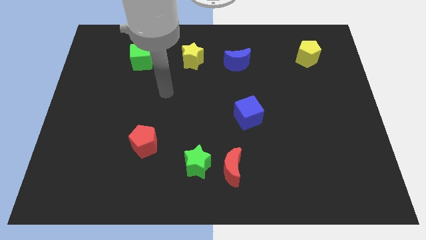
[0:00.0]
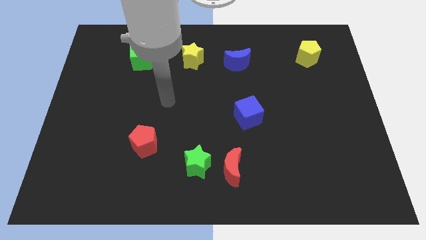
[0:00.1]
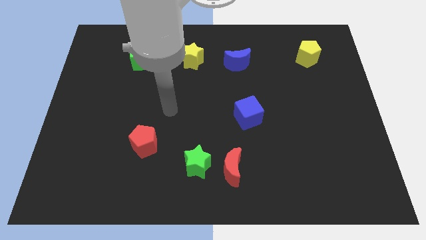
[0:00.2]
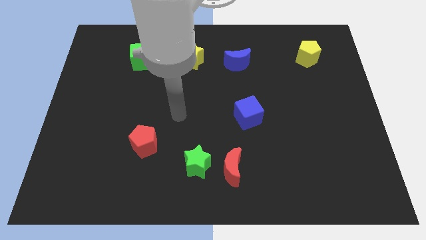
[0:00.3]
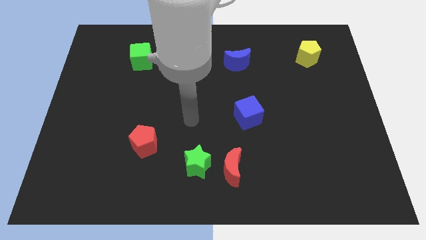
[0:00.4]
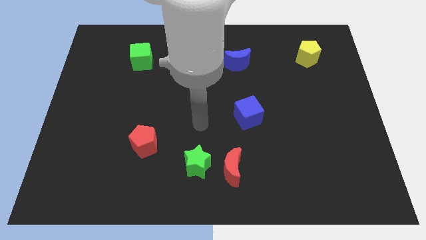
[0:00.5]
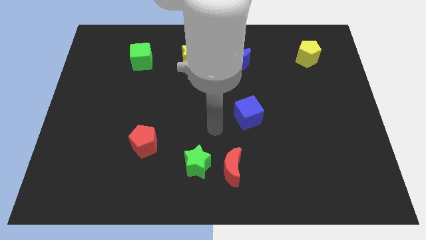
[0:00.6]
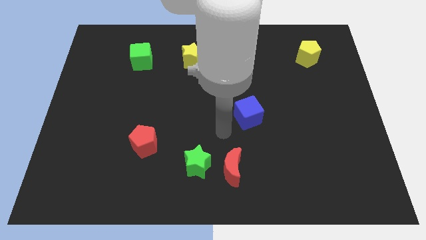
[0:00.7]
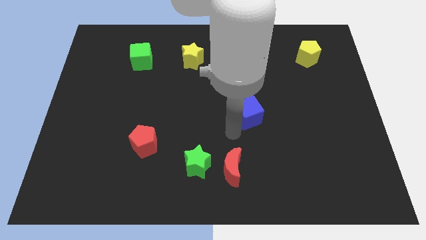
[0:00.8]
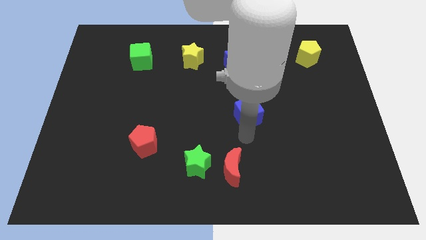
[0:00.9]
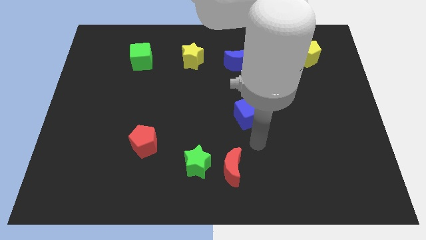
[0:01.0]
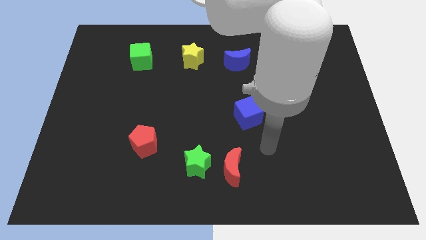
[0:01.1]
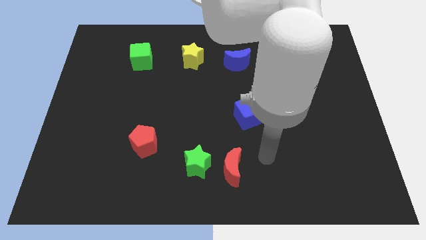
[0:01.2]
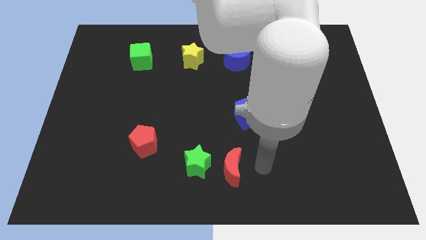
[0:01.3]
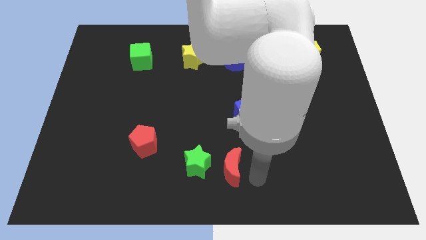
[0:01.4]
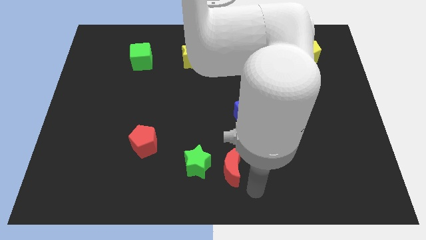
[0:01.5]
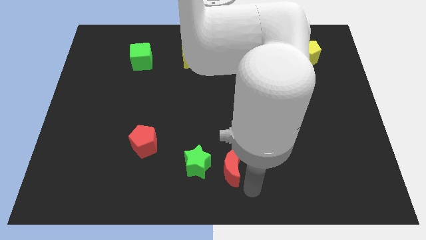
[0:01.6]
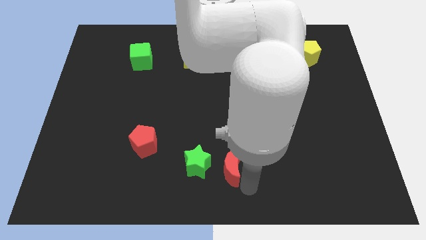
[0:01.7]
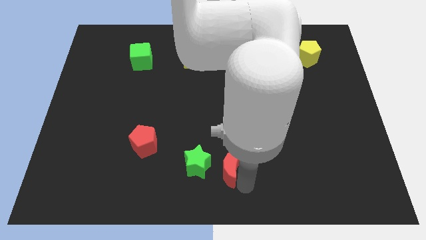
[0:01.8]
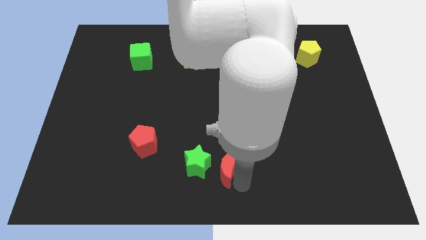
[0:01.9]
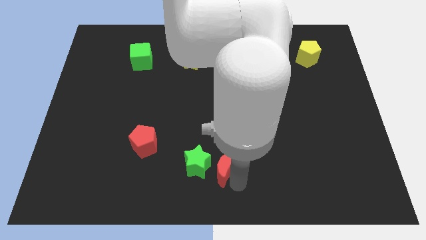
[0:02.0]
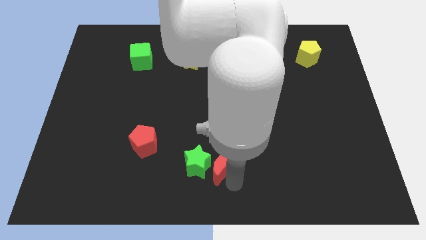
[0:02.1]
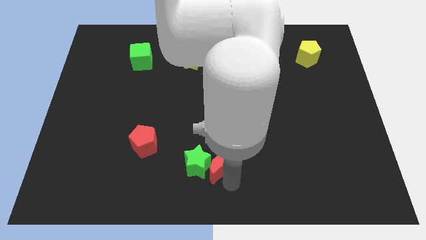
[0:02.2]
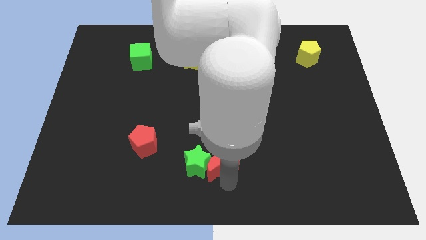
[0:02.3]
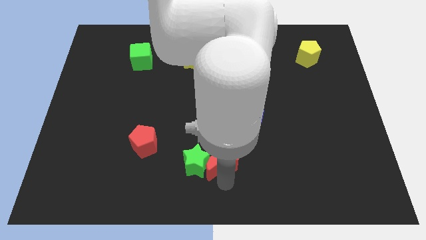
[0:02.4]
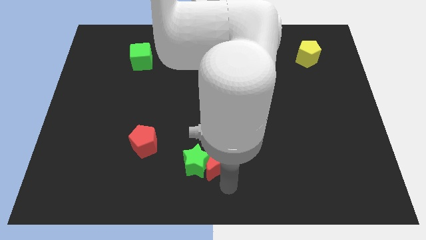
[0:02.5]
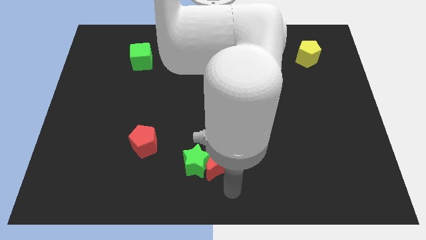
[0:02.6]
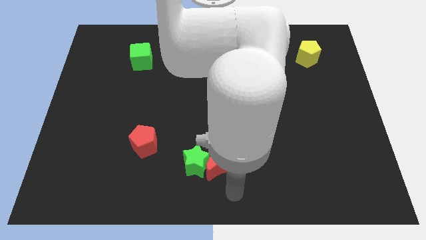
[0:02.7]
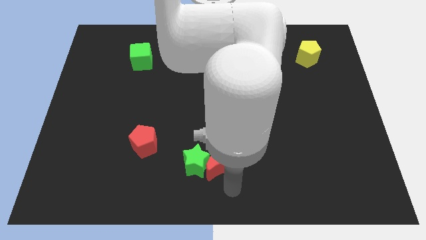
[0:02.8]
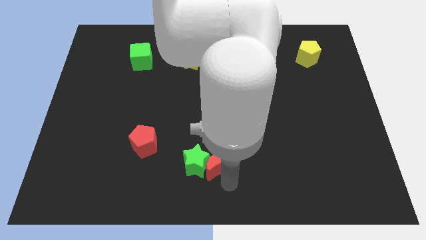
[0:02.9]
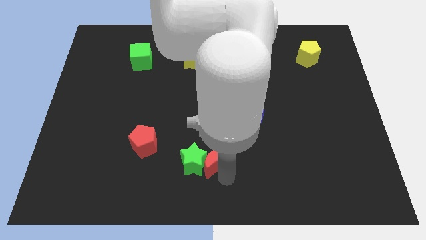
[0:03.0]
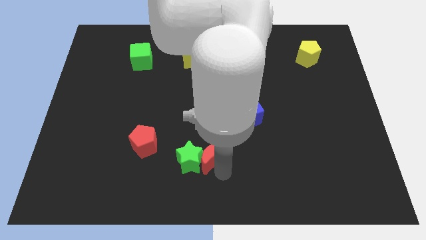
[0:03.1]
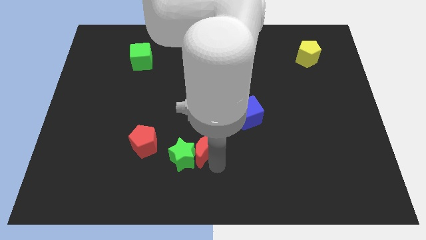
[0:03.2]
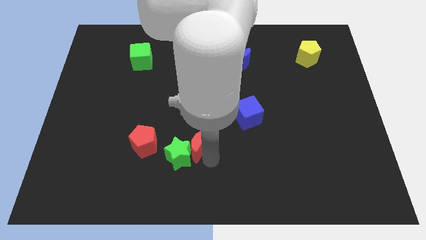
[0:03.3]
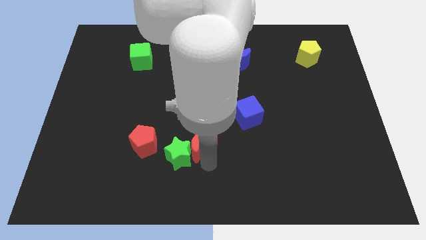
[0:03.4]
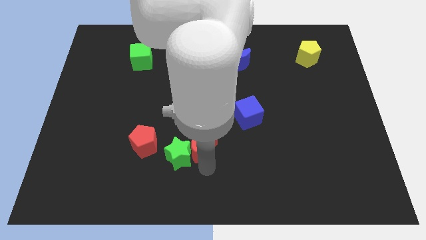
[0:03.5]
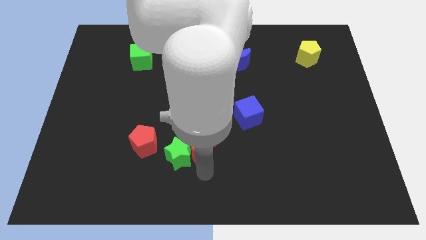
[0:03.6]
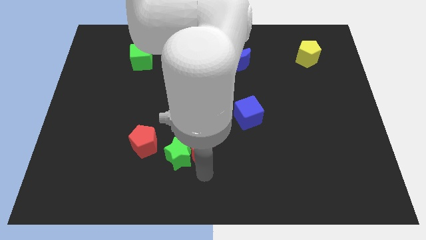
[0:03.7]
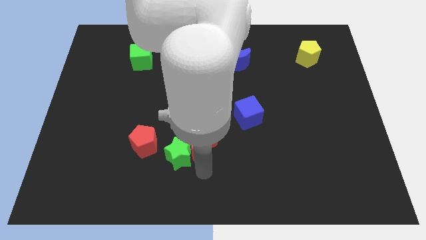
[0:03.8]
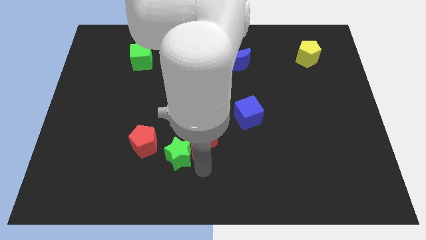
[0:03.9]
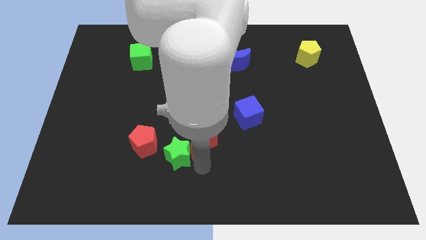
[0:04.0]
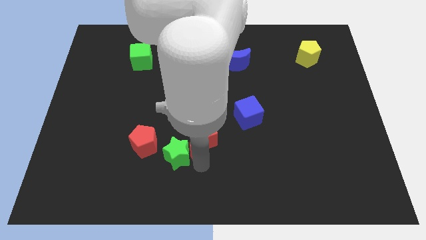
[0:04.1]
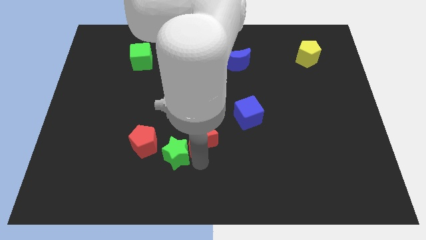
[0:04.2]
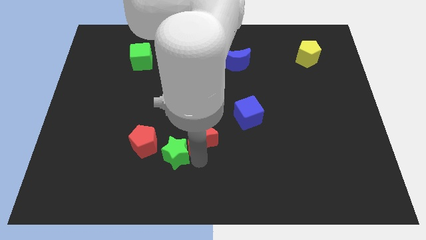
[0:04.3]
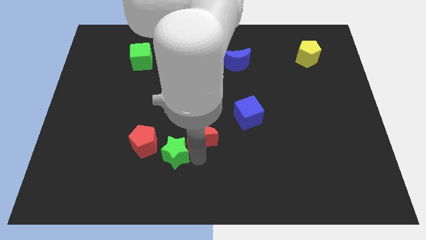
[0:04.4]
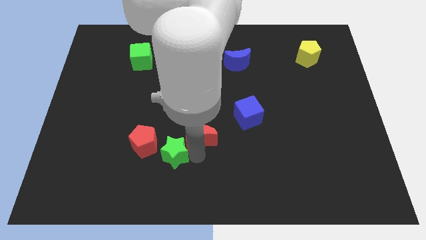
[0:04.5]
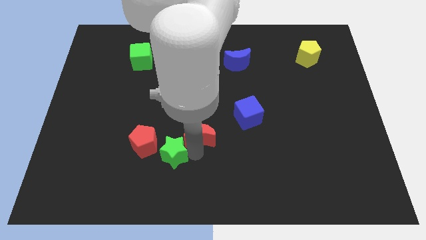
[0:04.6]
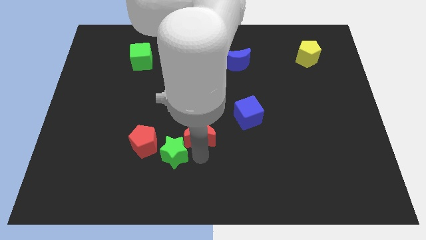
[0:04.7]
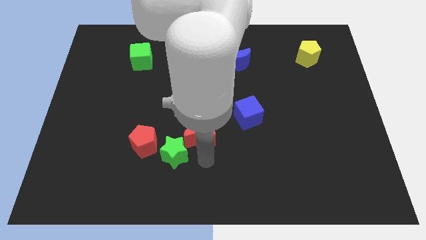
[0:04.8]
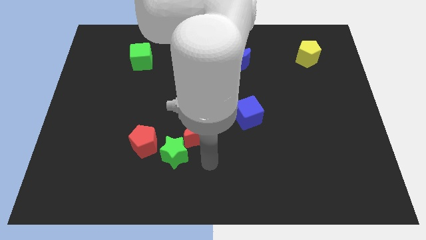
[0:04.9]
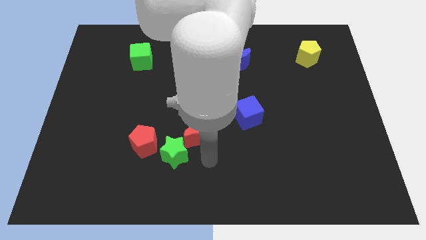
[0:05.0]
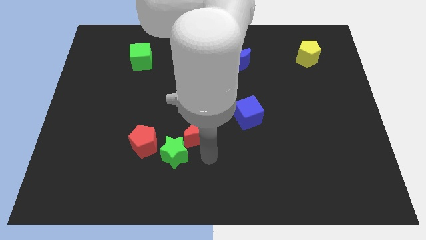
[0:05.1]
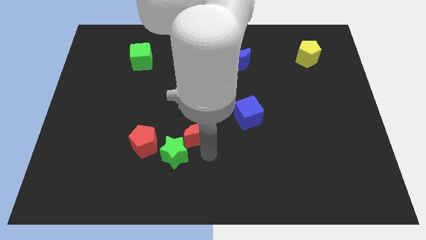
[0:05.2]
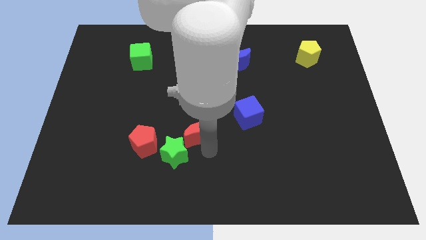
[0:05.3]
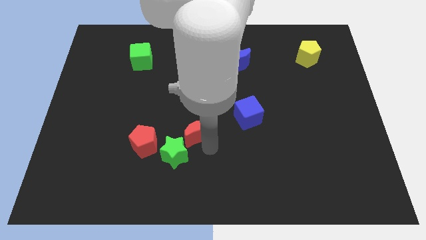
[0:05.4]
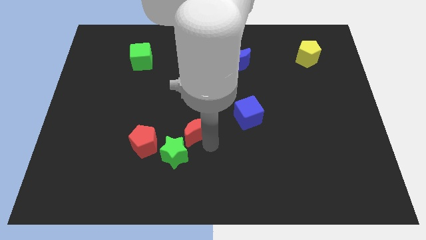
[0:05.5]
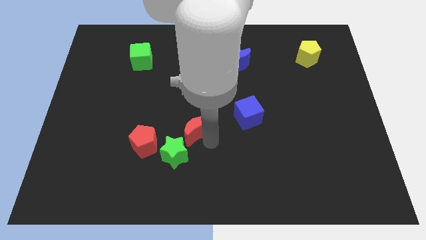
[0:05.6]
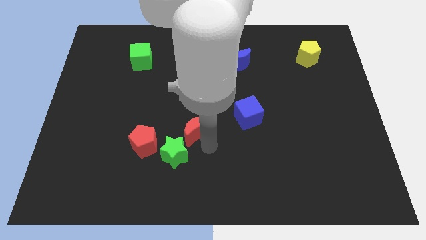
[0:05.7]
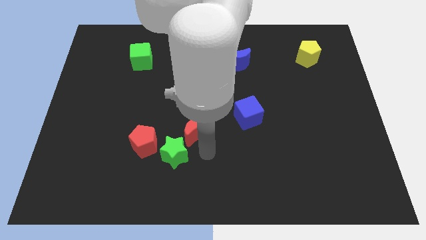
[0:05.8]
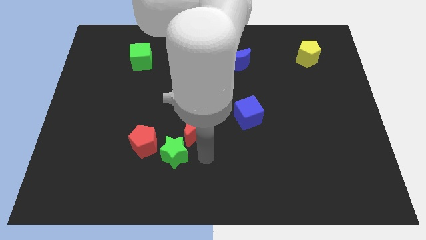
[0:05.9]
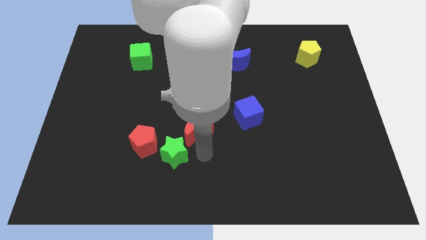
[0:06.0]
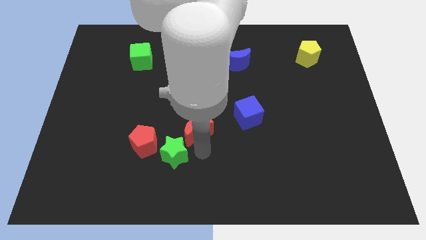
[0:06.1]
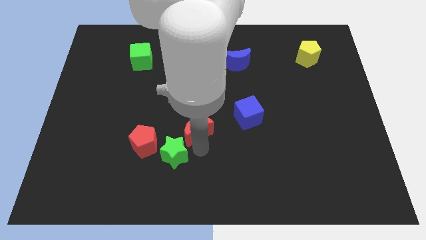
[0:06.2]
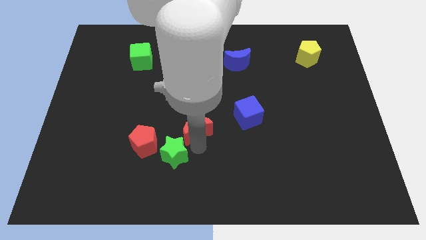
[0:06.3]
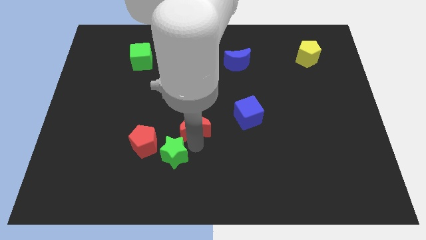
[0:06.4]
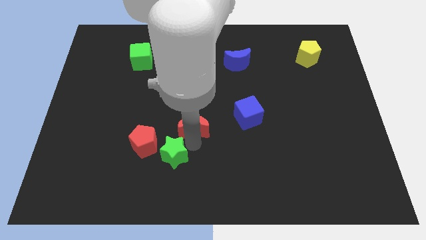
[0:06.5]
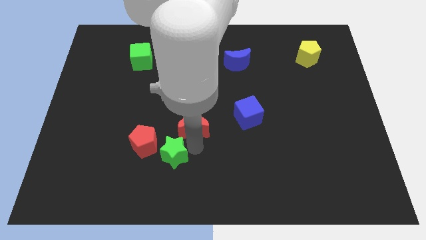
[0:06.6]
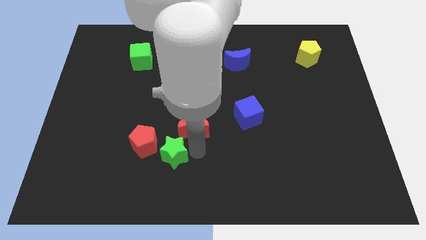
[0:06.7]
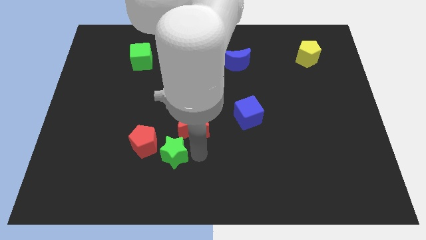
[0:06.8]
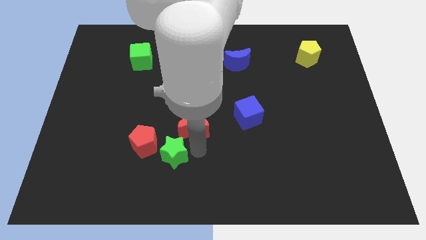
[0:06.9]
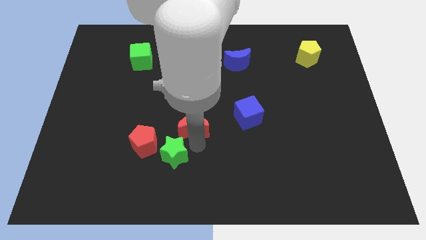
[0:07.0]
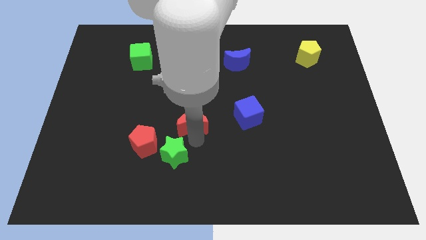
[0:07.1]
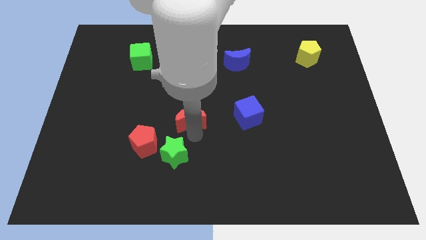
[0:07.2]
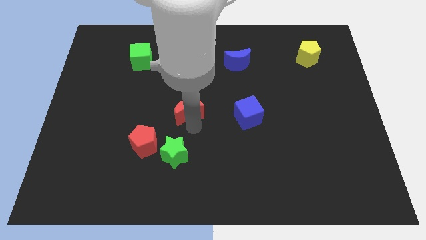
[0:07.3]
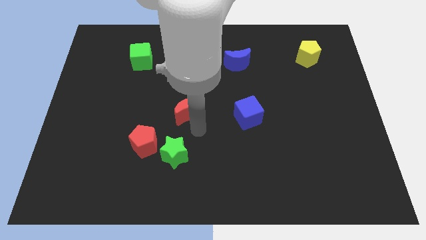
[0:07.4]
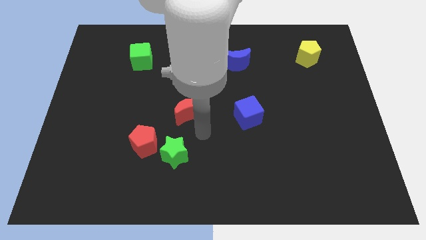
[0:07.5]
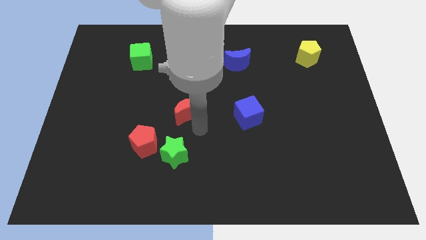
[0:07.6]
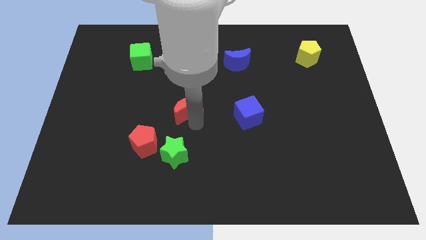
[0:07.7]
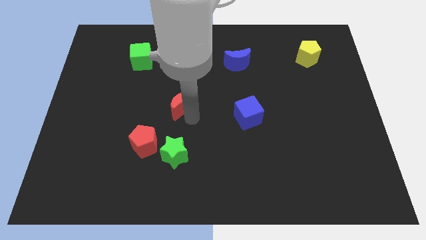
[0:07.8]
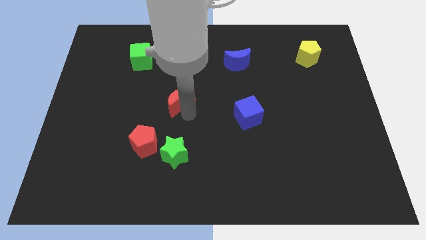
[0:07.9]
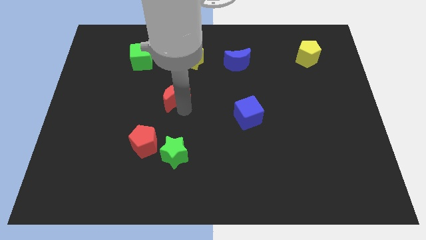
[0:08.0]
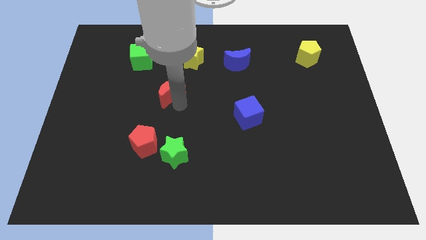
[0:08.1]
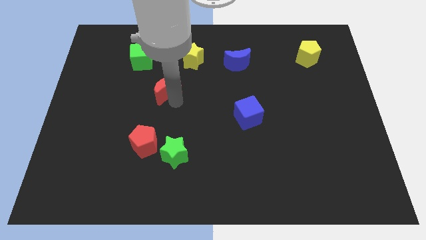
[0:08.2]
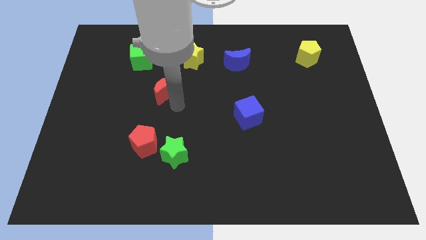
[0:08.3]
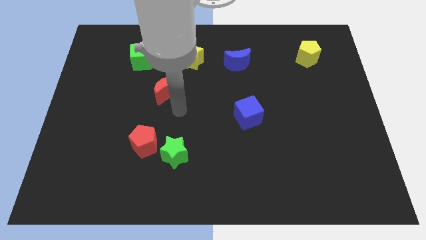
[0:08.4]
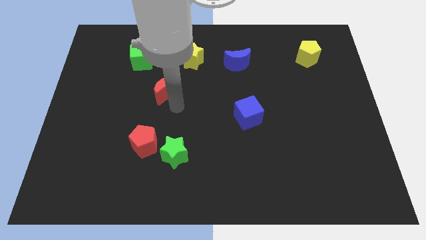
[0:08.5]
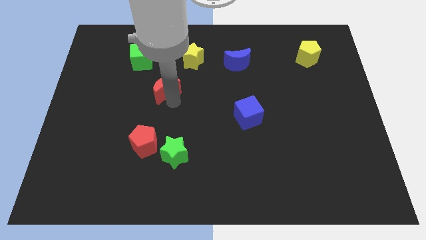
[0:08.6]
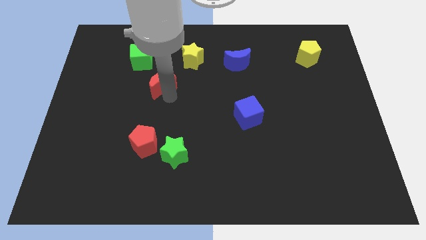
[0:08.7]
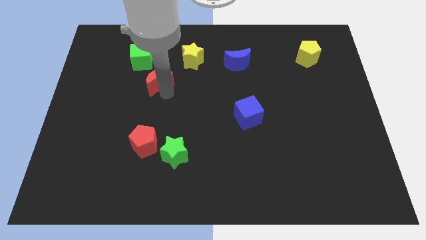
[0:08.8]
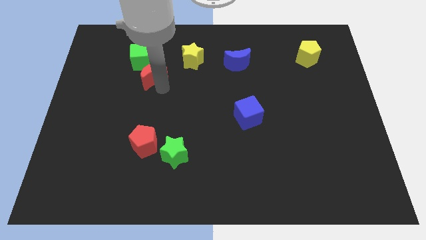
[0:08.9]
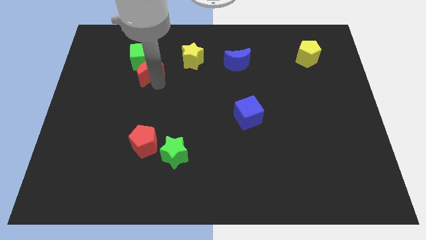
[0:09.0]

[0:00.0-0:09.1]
slide the red moon towards the green cube
